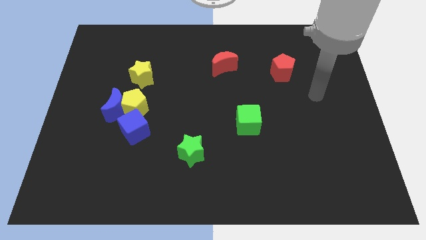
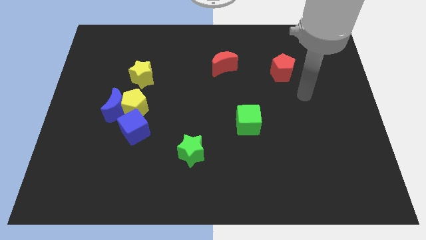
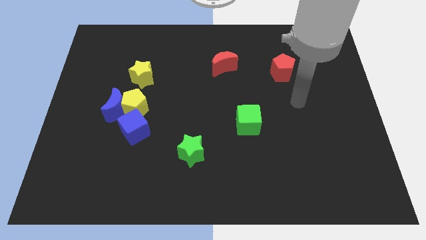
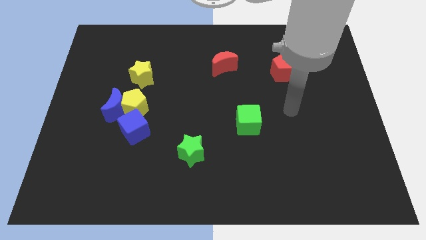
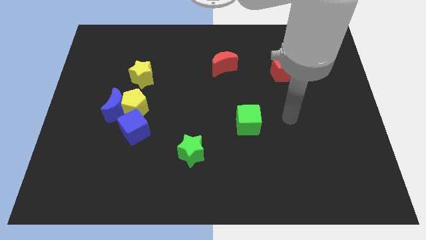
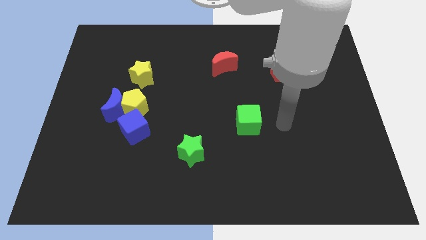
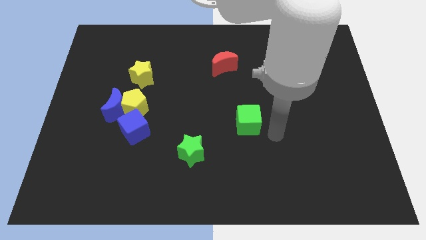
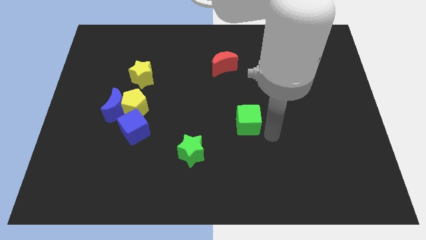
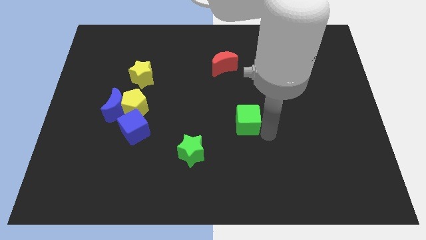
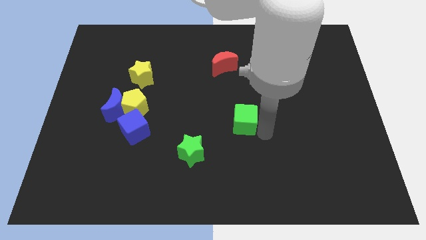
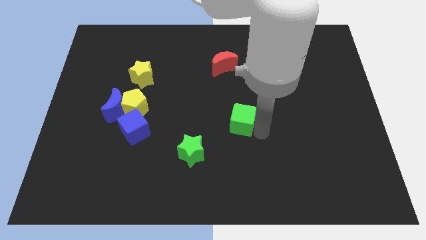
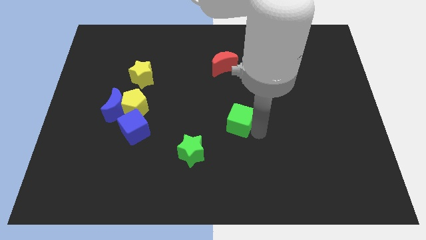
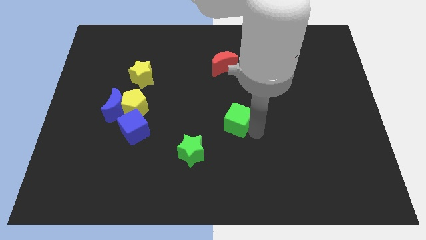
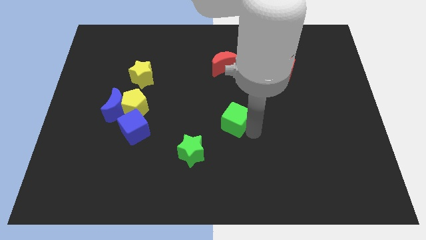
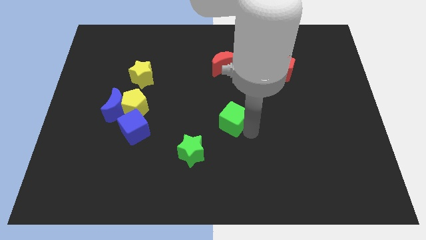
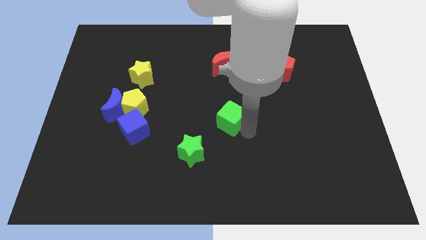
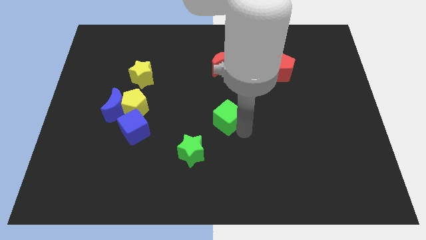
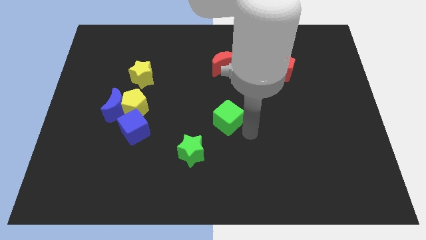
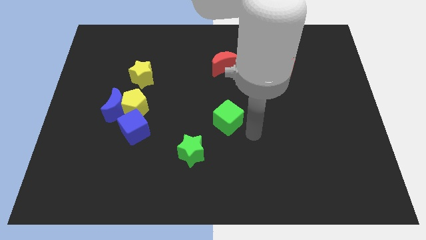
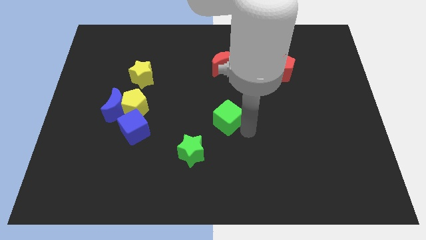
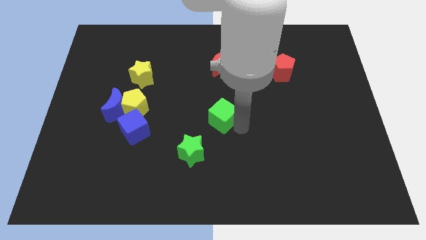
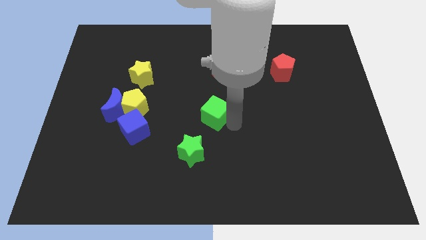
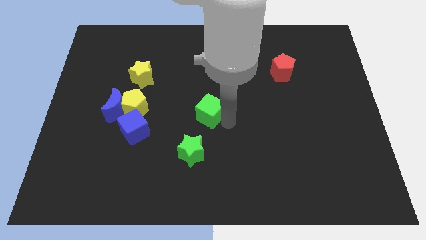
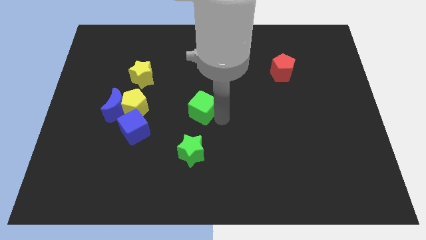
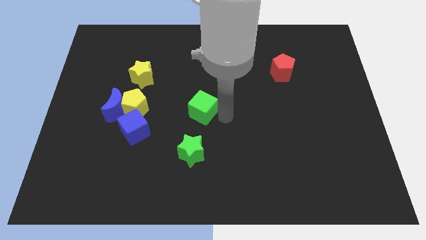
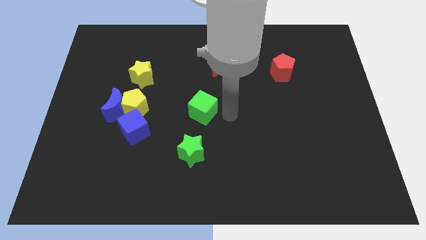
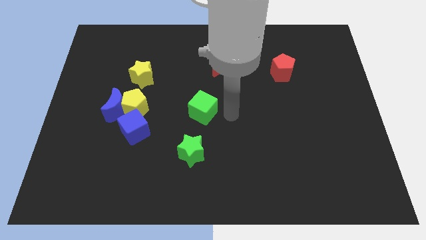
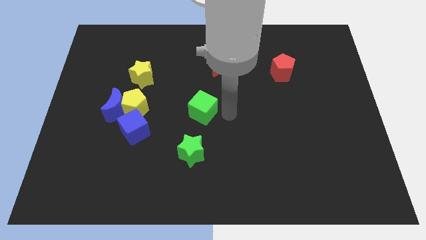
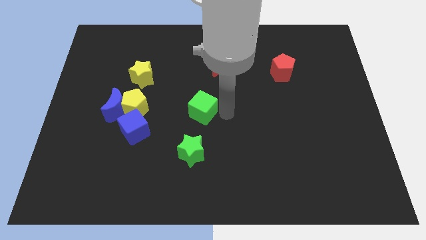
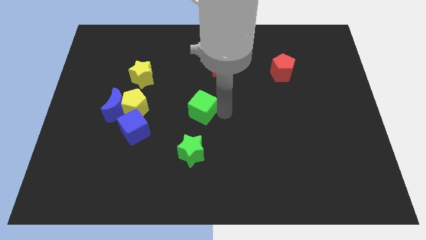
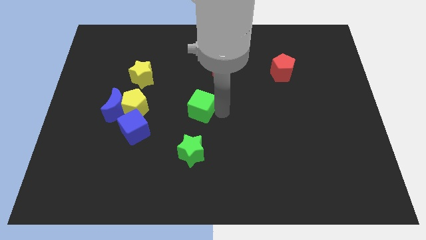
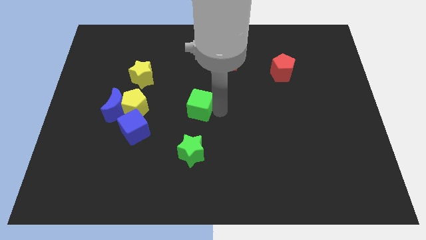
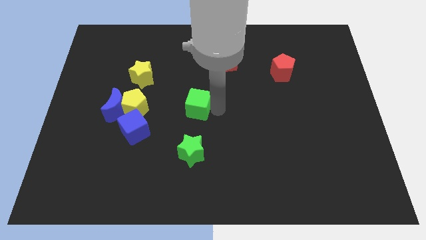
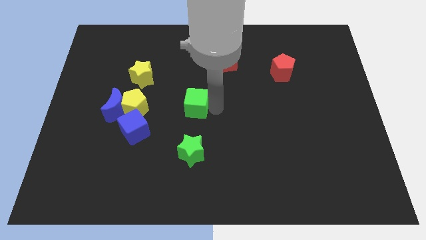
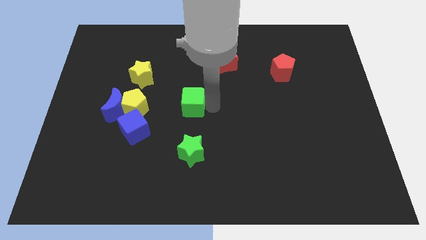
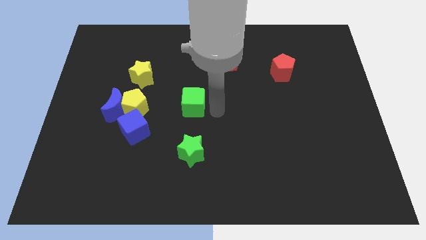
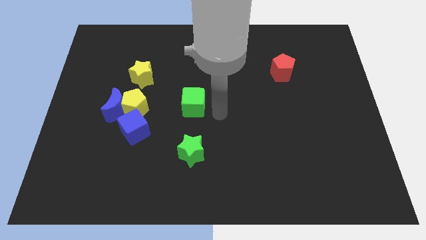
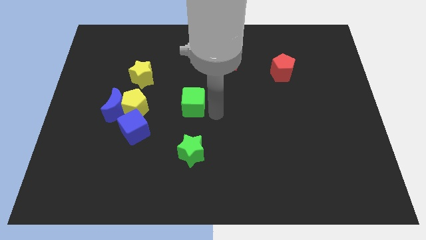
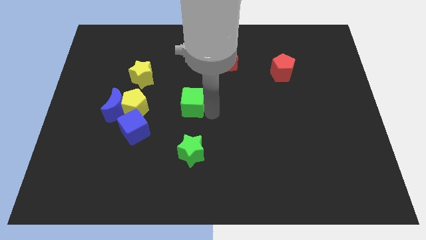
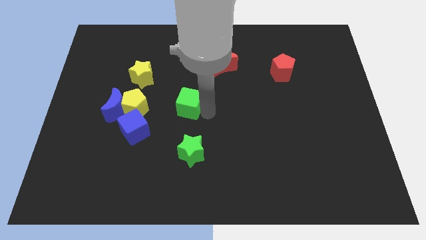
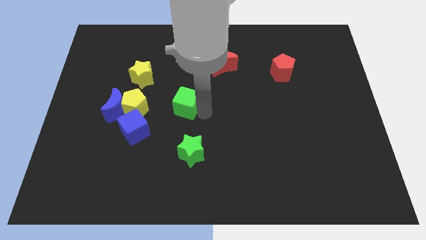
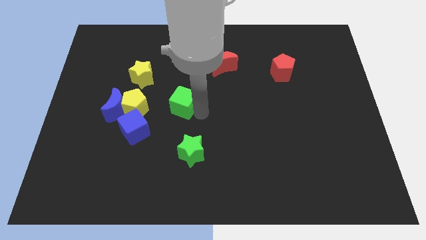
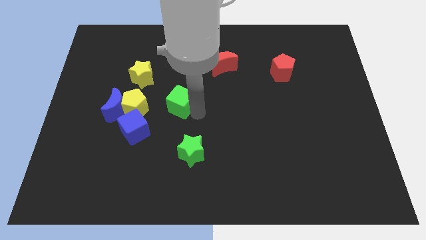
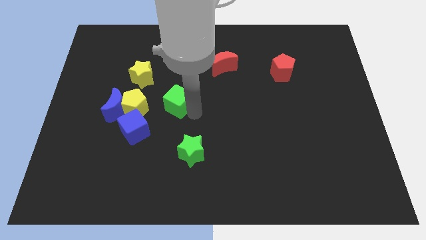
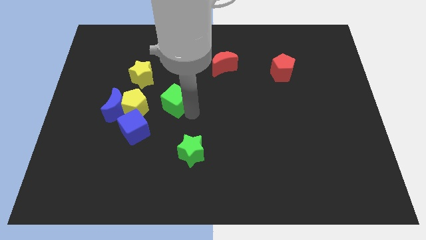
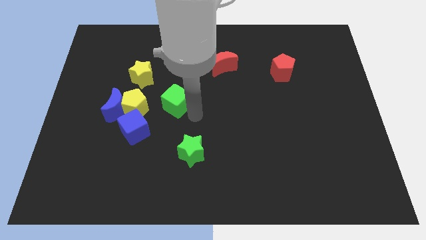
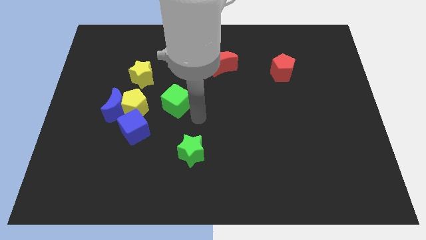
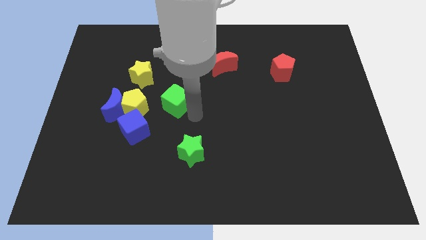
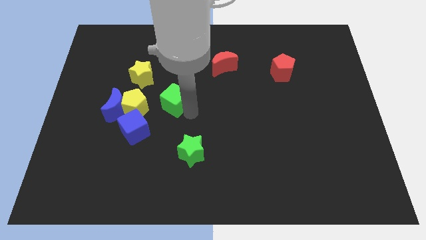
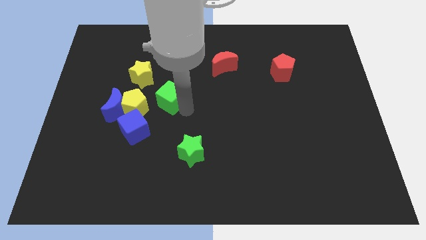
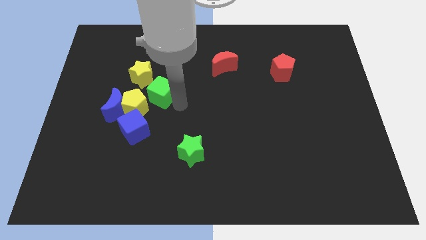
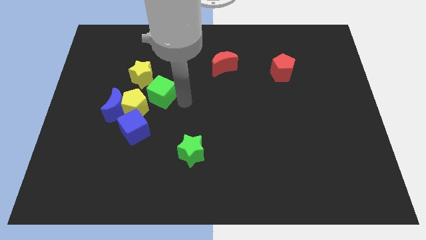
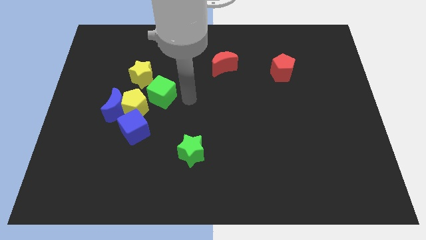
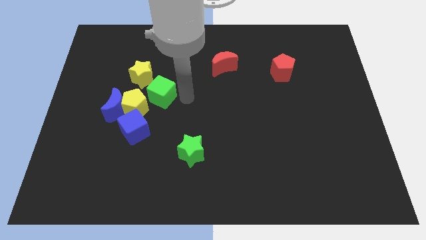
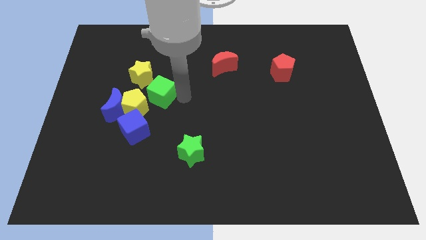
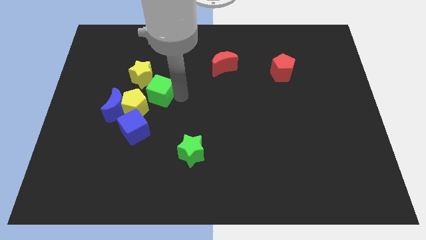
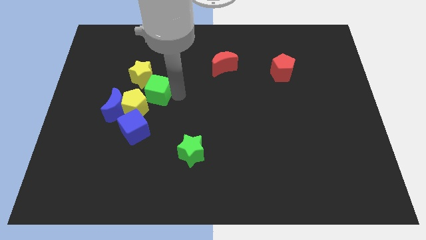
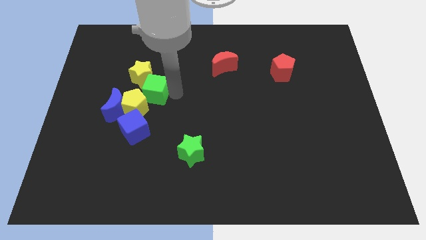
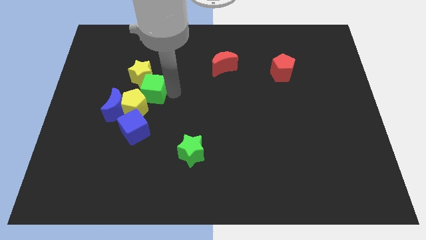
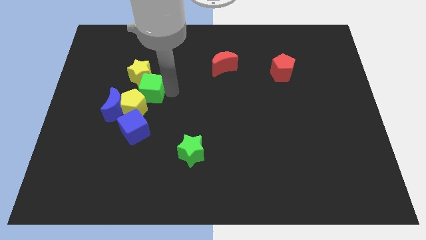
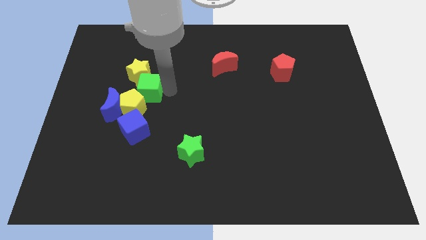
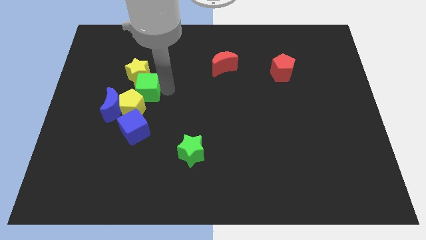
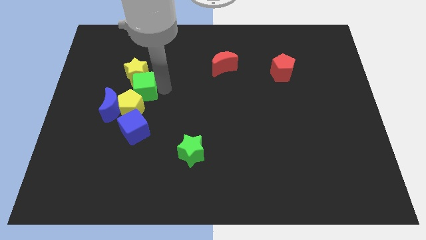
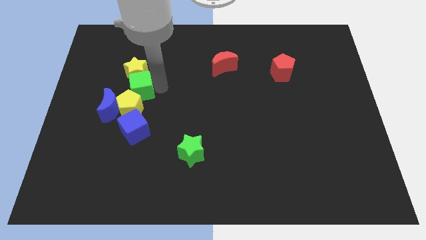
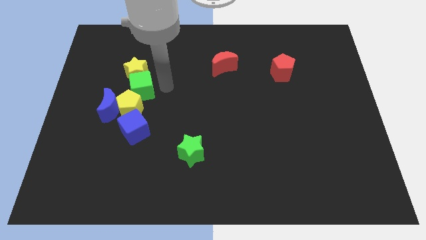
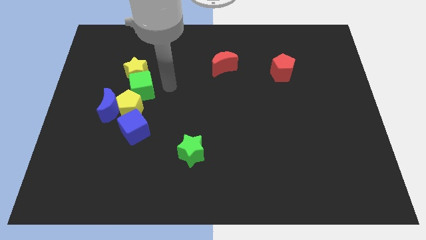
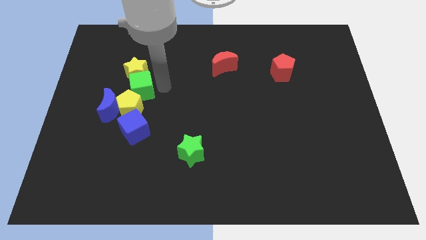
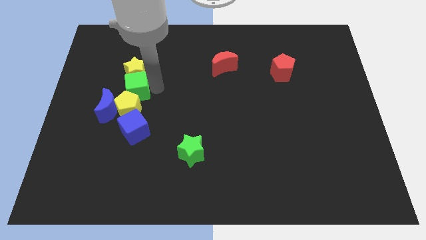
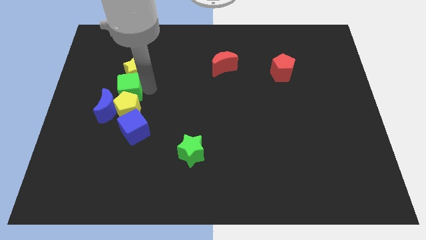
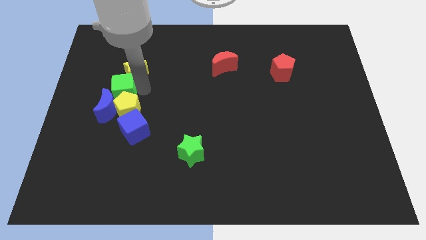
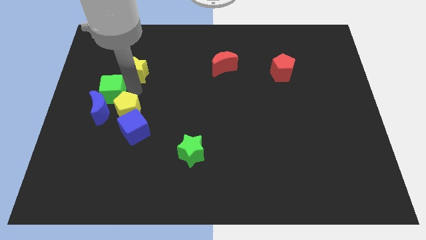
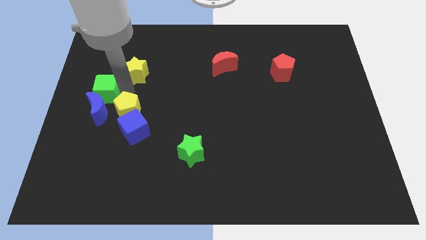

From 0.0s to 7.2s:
put the green cube to the left side
